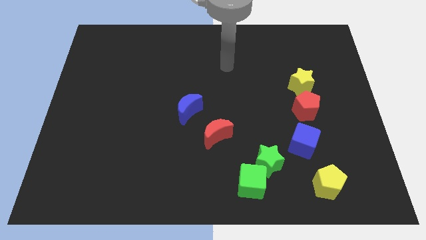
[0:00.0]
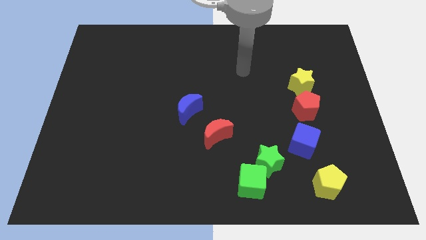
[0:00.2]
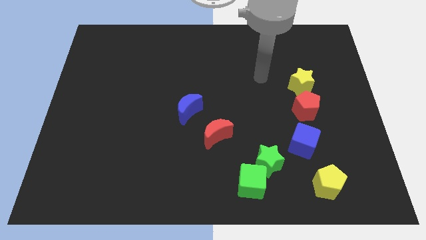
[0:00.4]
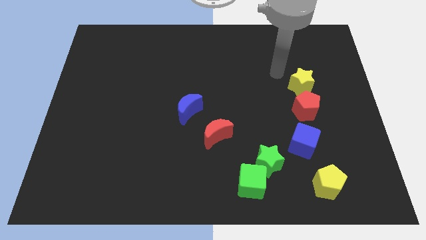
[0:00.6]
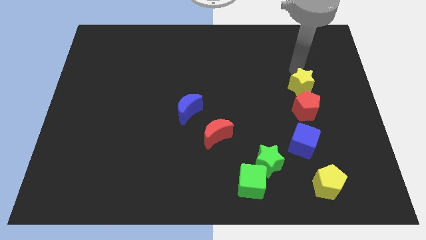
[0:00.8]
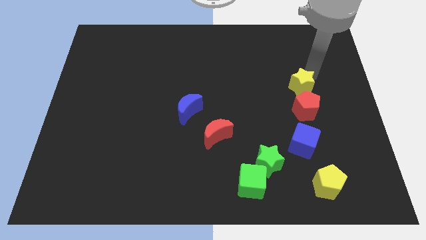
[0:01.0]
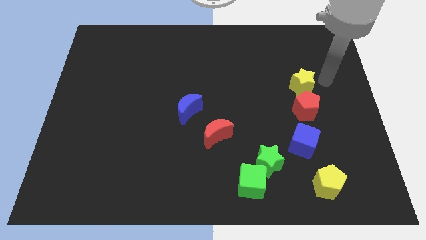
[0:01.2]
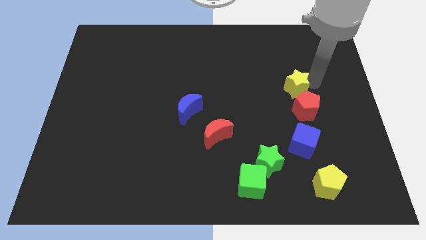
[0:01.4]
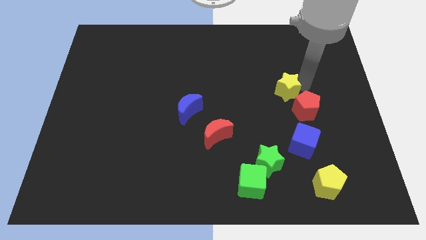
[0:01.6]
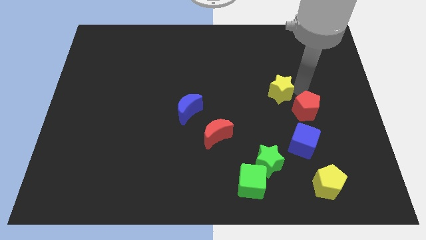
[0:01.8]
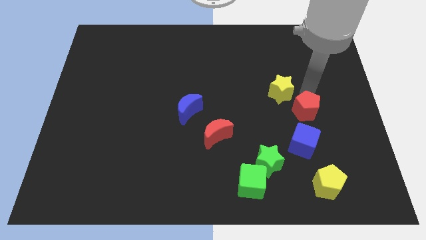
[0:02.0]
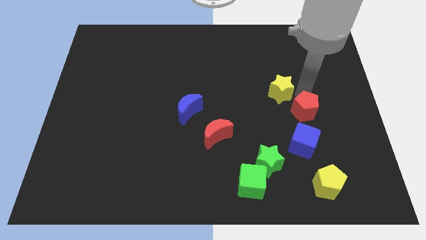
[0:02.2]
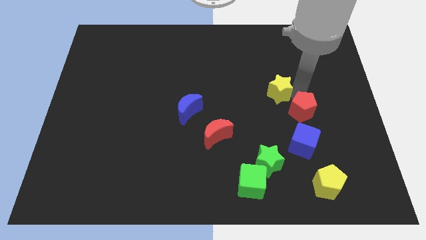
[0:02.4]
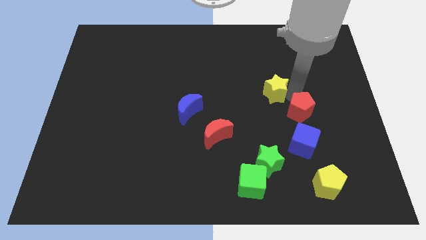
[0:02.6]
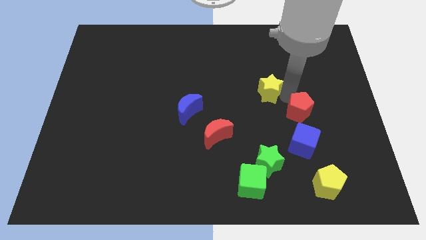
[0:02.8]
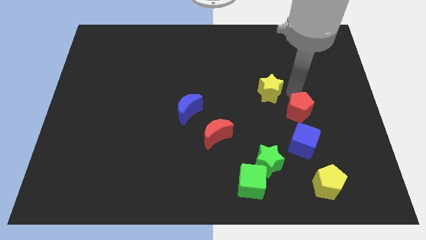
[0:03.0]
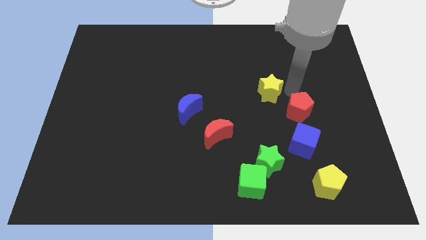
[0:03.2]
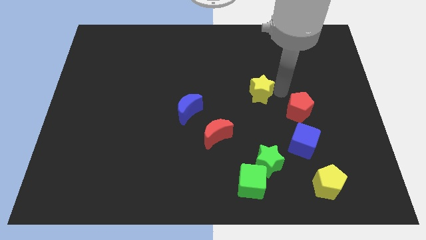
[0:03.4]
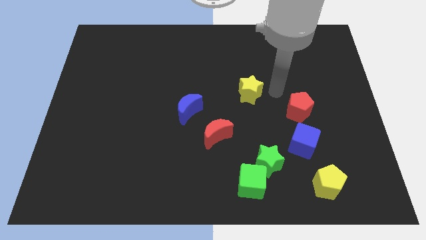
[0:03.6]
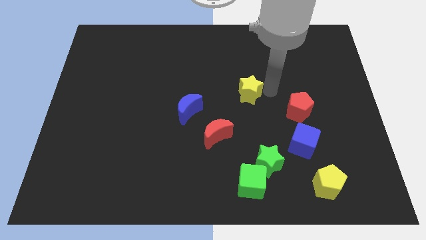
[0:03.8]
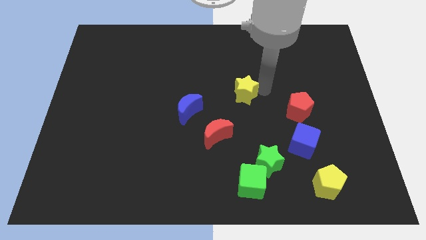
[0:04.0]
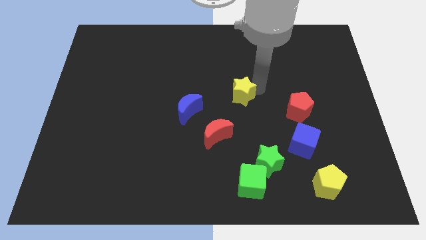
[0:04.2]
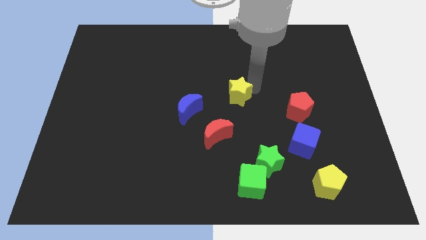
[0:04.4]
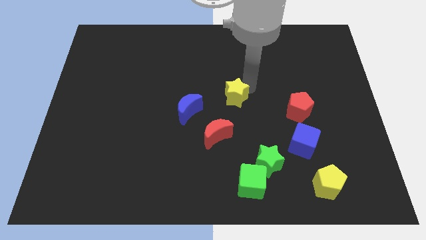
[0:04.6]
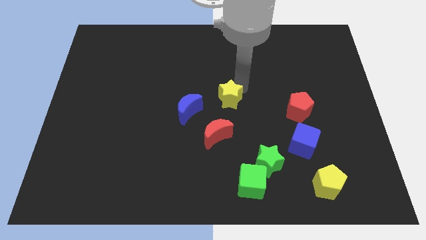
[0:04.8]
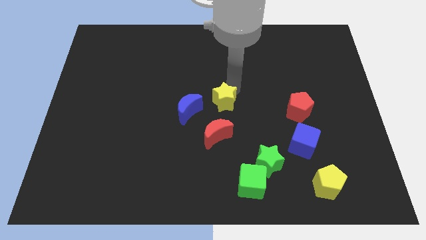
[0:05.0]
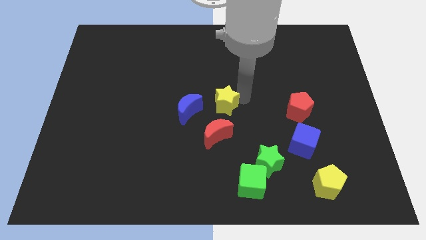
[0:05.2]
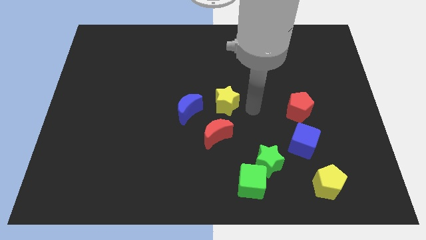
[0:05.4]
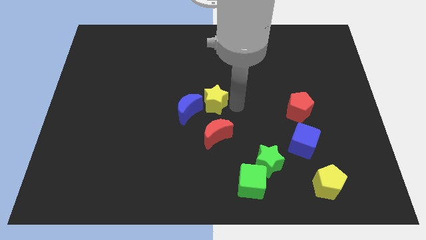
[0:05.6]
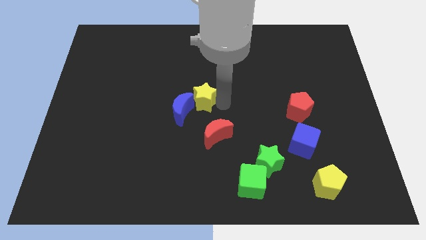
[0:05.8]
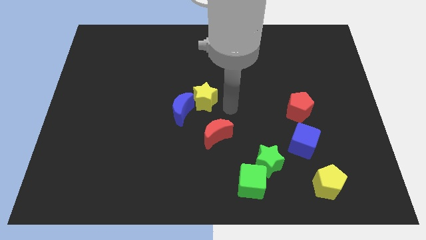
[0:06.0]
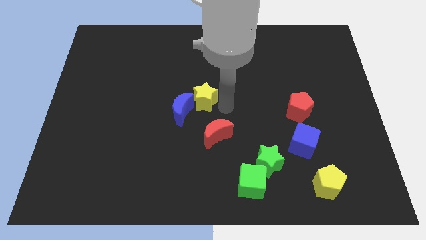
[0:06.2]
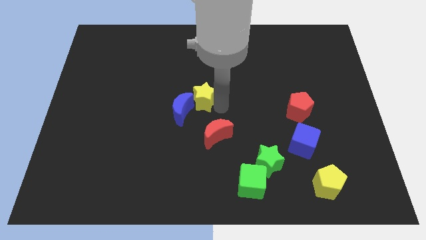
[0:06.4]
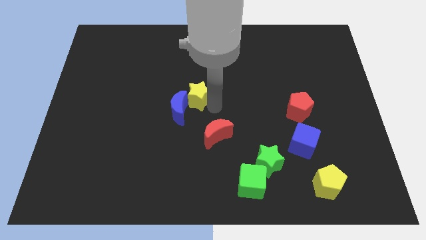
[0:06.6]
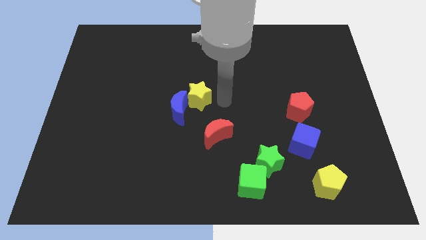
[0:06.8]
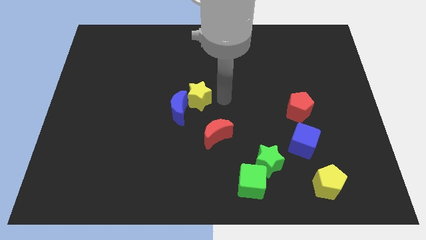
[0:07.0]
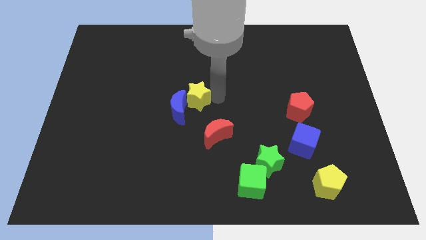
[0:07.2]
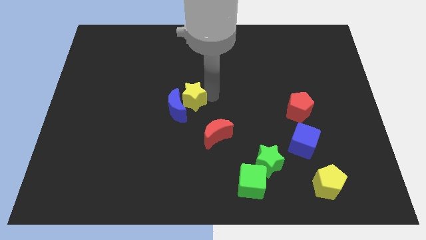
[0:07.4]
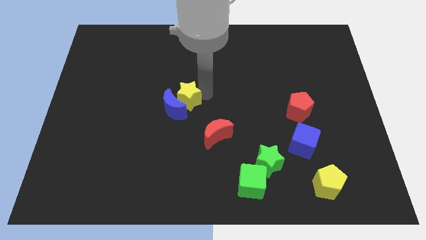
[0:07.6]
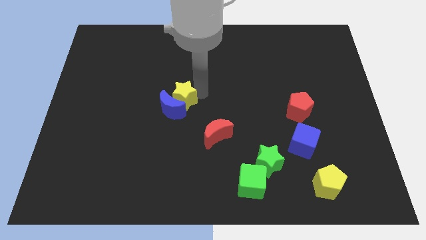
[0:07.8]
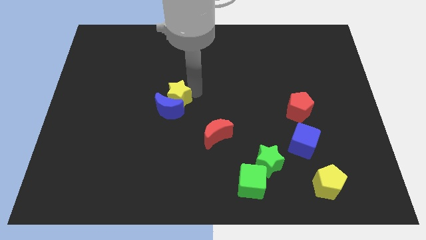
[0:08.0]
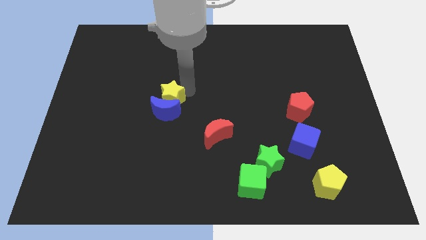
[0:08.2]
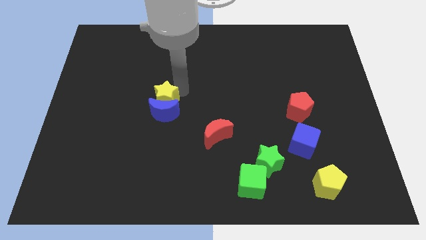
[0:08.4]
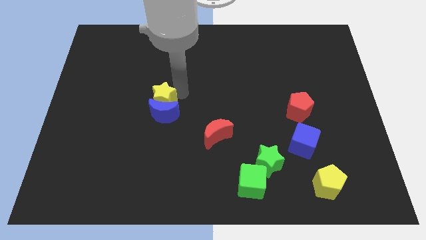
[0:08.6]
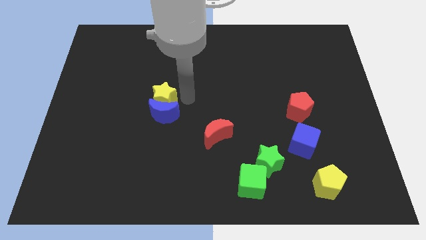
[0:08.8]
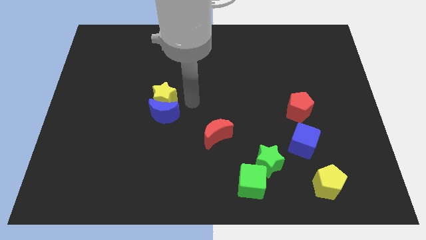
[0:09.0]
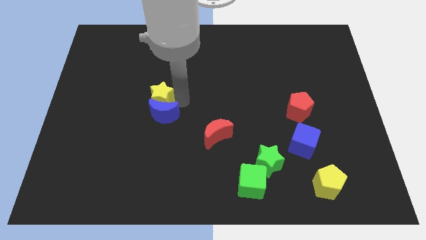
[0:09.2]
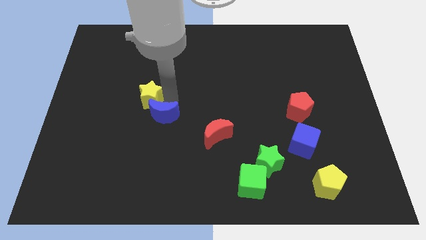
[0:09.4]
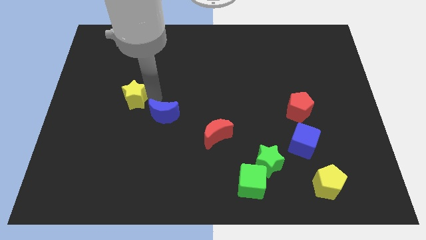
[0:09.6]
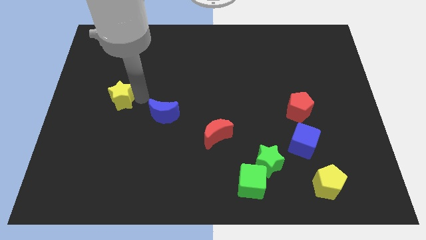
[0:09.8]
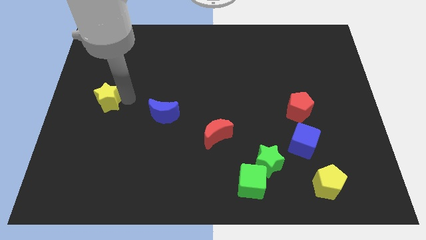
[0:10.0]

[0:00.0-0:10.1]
slide the yellow star to the center left

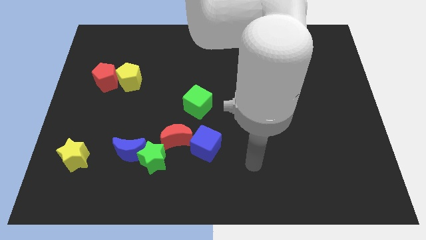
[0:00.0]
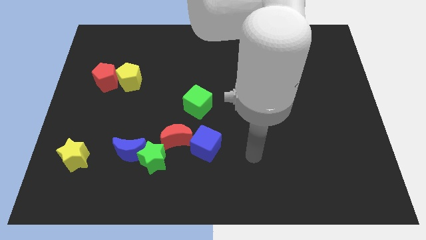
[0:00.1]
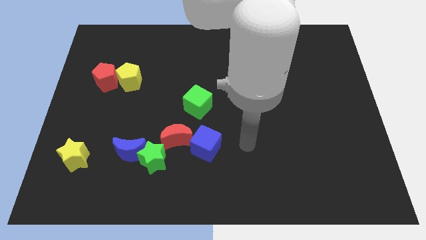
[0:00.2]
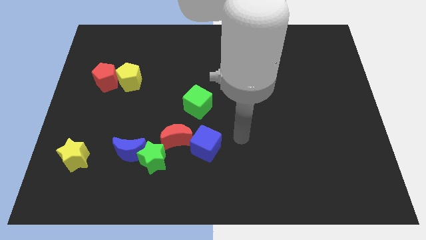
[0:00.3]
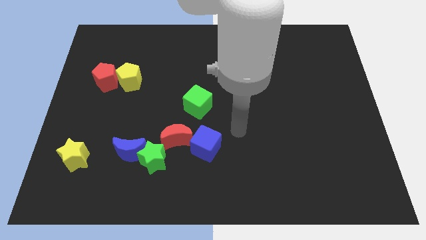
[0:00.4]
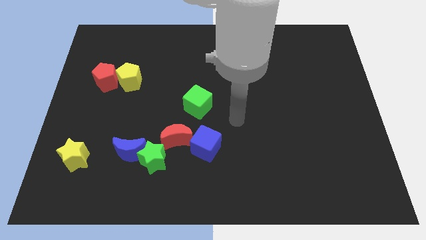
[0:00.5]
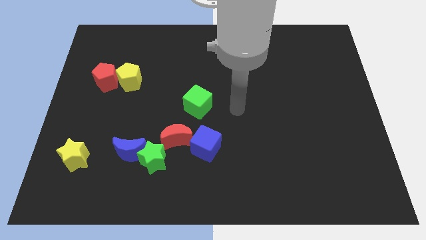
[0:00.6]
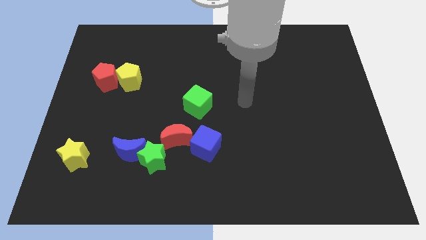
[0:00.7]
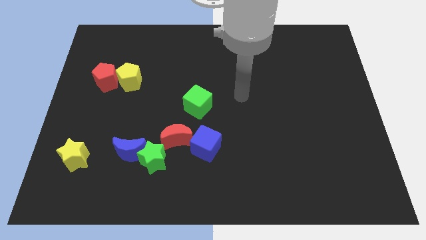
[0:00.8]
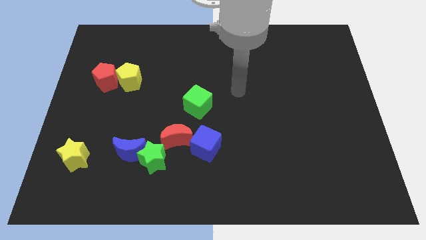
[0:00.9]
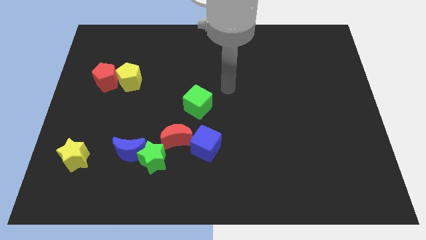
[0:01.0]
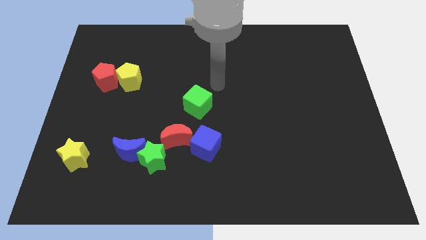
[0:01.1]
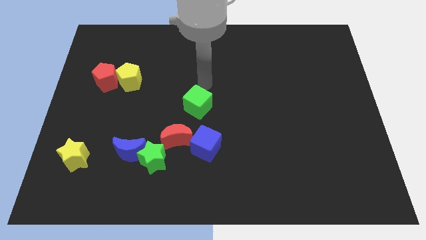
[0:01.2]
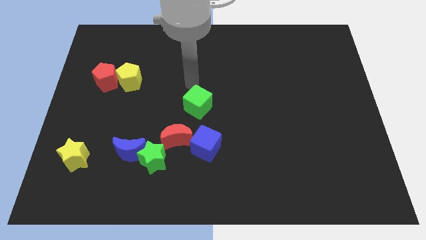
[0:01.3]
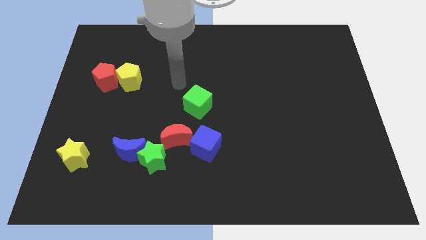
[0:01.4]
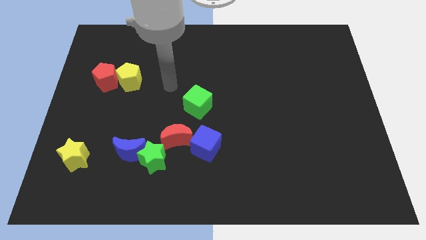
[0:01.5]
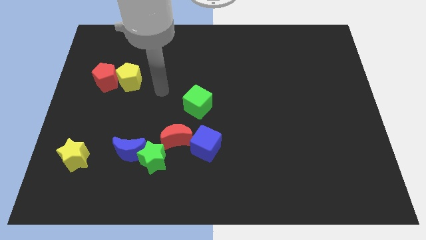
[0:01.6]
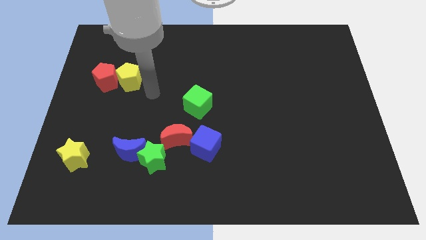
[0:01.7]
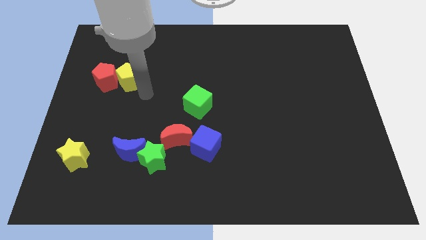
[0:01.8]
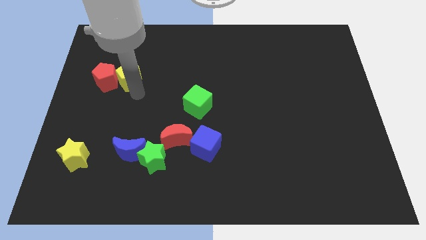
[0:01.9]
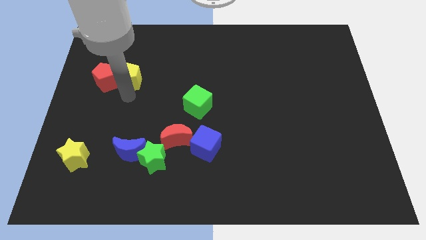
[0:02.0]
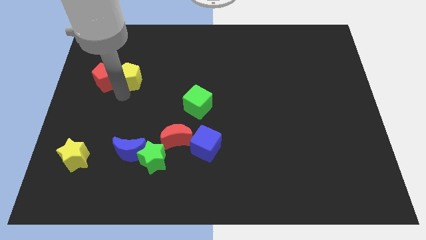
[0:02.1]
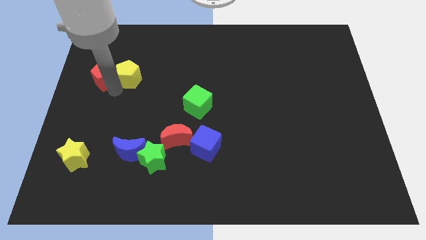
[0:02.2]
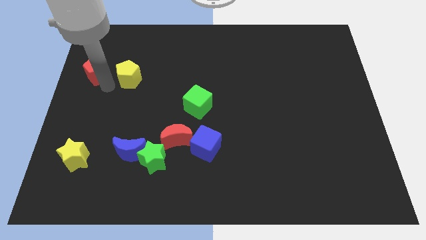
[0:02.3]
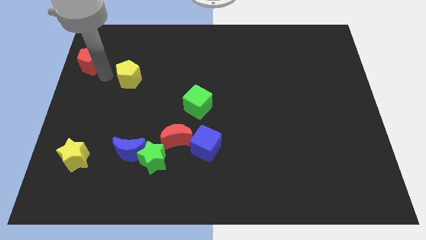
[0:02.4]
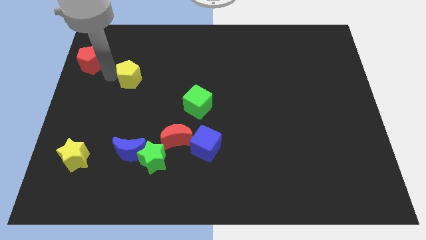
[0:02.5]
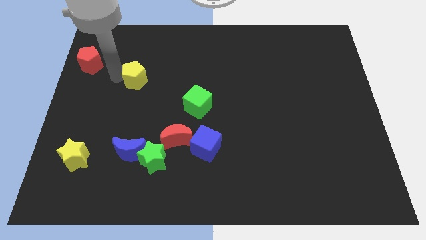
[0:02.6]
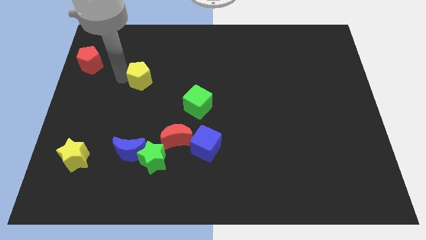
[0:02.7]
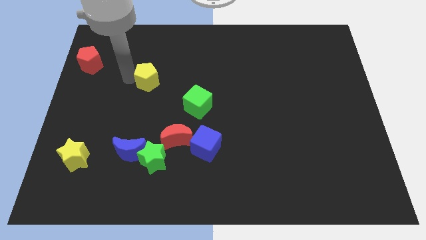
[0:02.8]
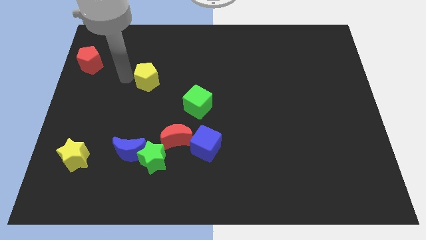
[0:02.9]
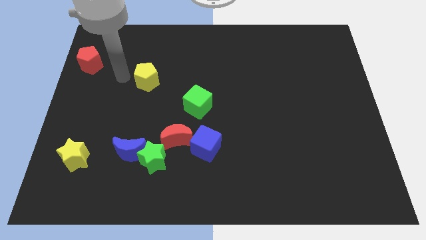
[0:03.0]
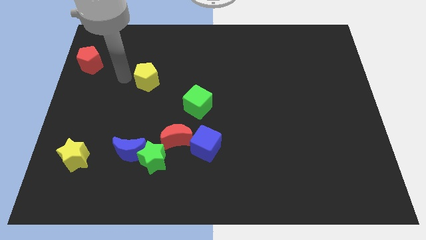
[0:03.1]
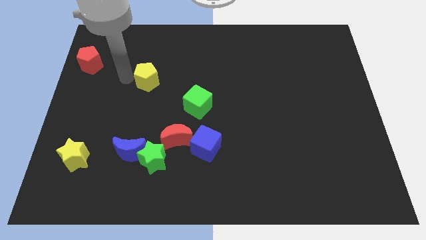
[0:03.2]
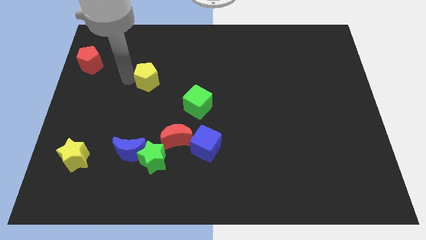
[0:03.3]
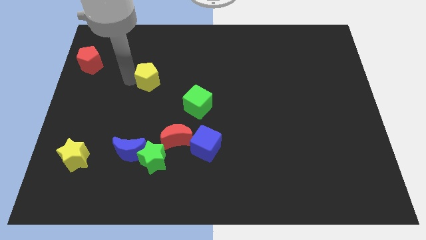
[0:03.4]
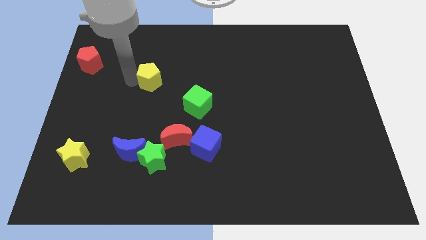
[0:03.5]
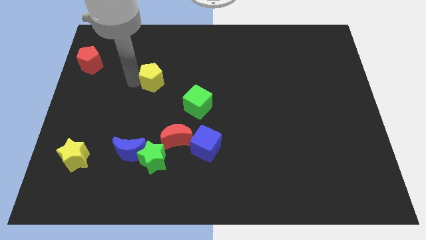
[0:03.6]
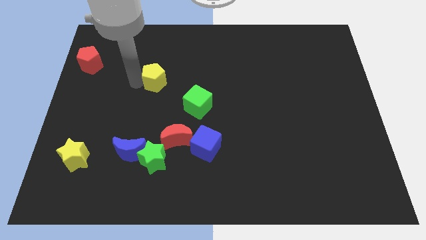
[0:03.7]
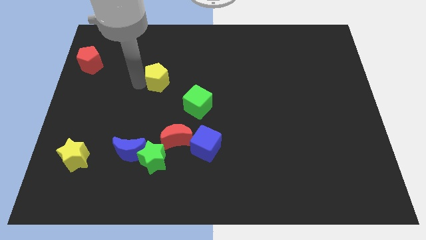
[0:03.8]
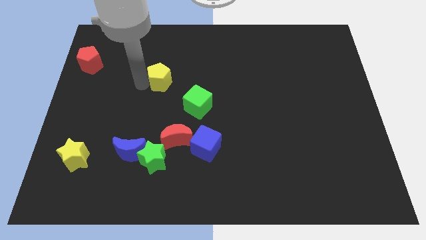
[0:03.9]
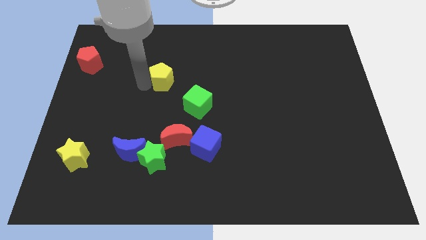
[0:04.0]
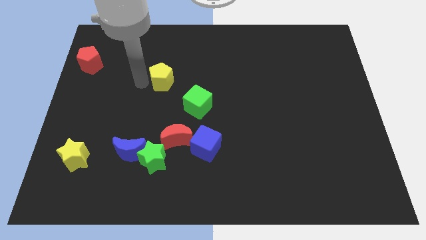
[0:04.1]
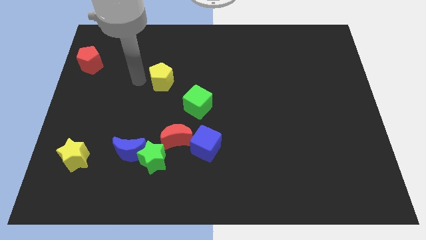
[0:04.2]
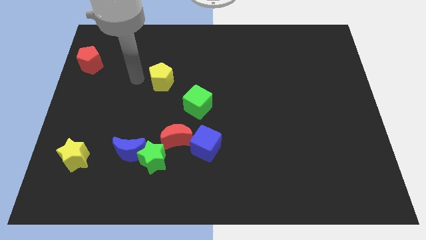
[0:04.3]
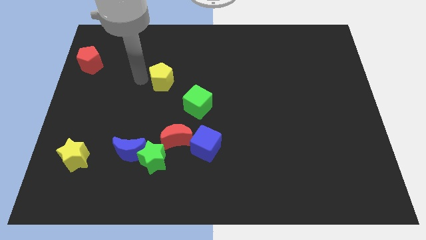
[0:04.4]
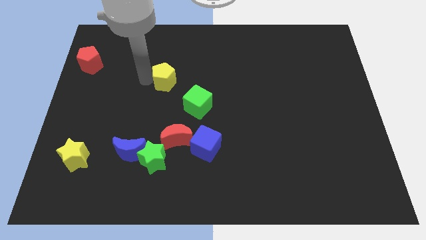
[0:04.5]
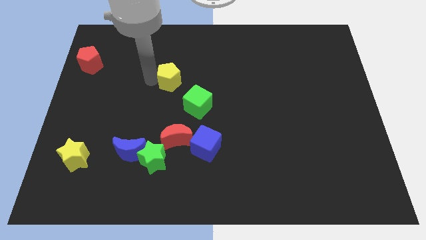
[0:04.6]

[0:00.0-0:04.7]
slide the yellow pentagon to the center
